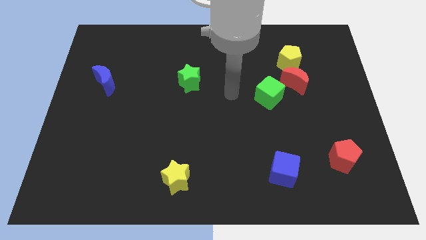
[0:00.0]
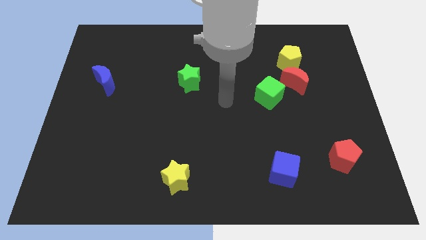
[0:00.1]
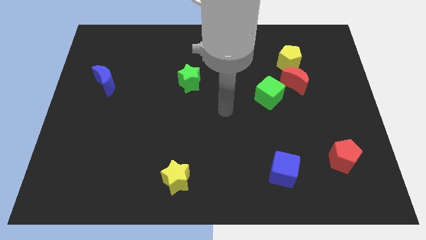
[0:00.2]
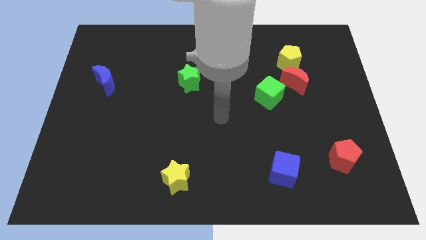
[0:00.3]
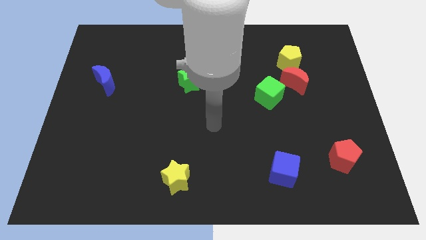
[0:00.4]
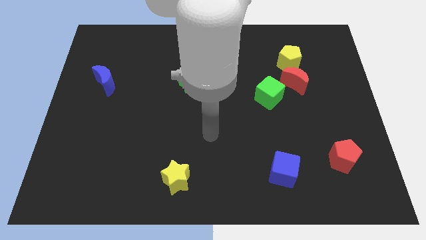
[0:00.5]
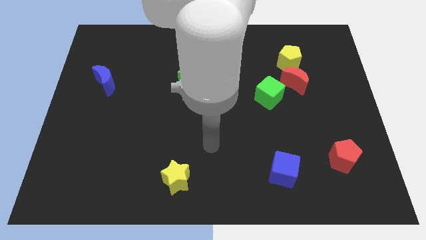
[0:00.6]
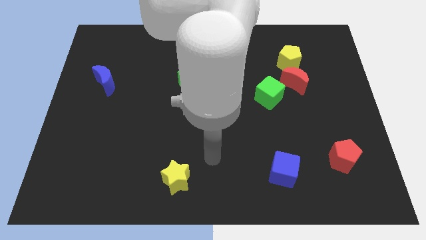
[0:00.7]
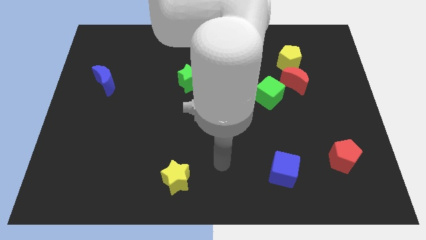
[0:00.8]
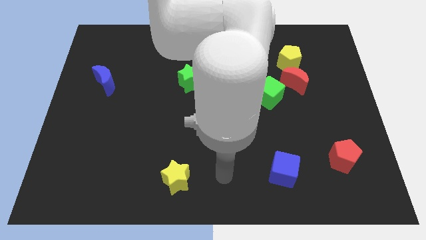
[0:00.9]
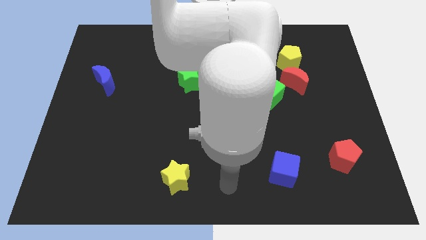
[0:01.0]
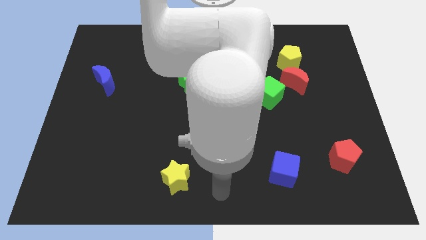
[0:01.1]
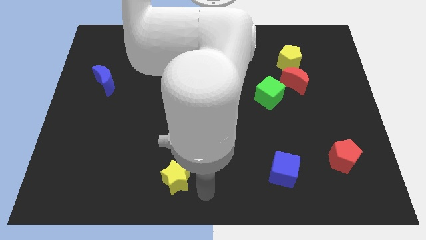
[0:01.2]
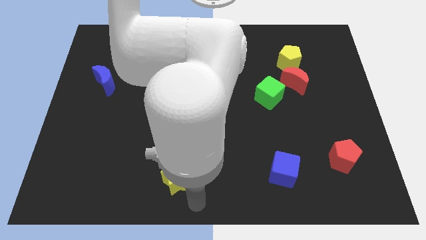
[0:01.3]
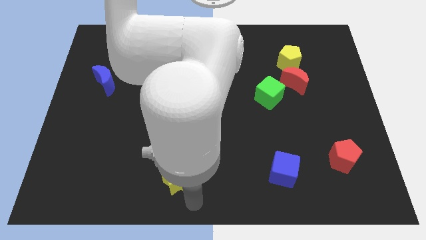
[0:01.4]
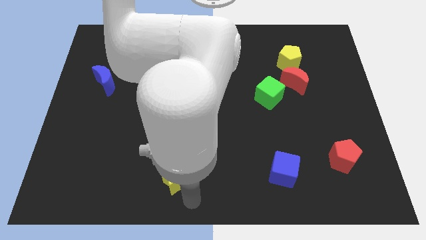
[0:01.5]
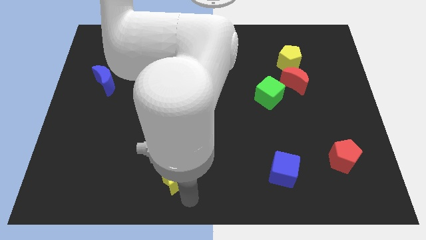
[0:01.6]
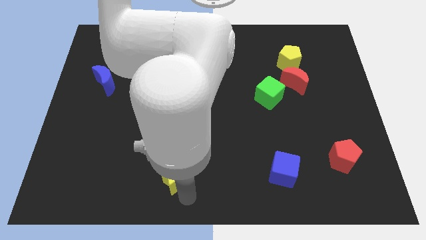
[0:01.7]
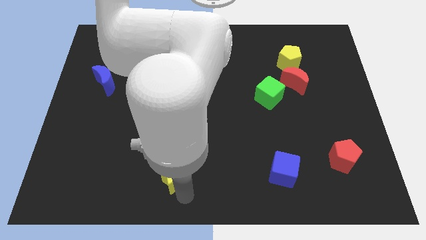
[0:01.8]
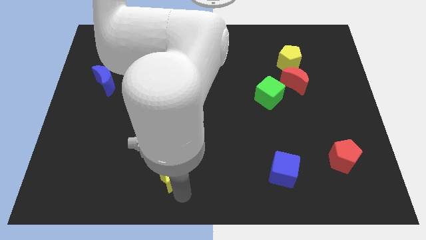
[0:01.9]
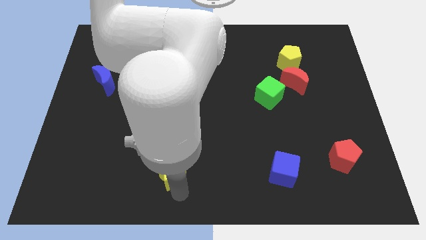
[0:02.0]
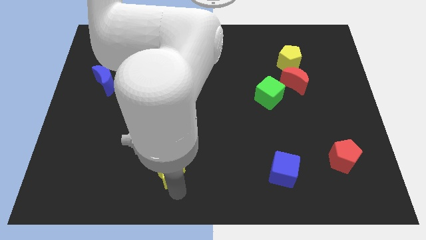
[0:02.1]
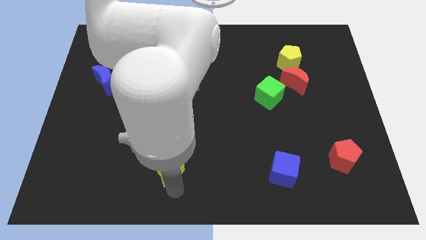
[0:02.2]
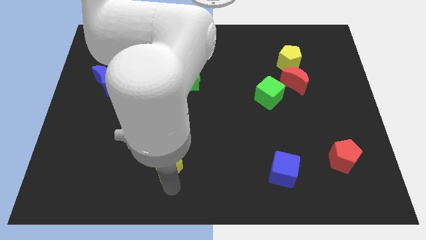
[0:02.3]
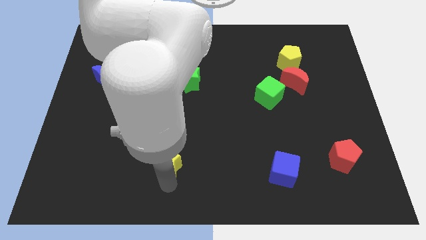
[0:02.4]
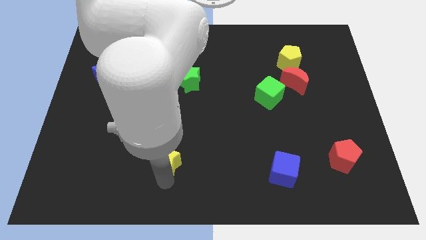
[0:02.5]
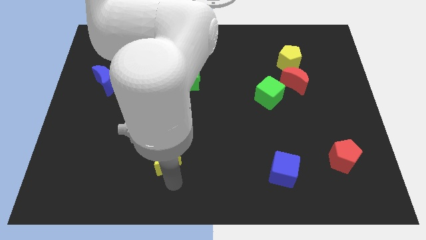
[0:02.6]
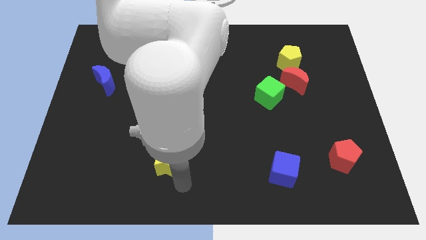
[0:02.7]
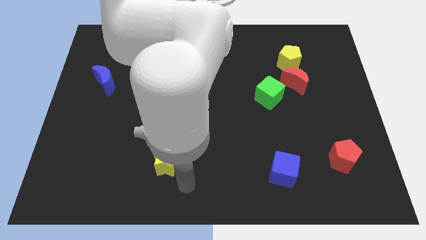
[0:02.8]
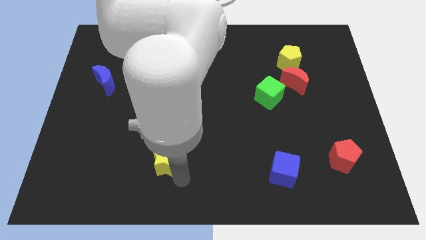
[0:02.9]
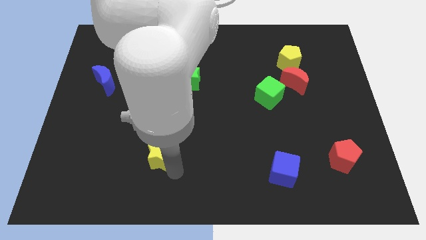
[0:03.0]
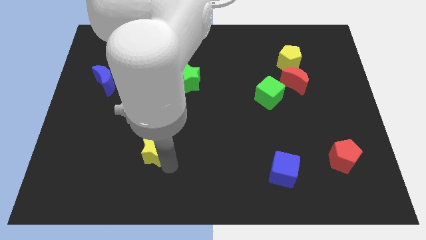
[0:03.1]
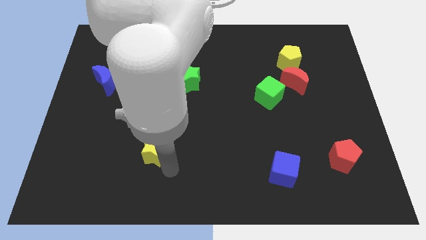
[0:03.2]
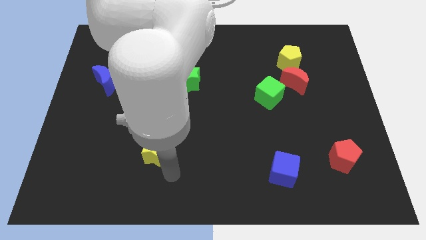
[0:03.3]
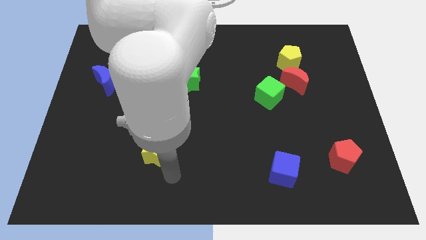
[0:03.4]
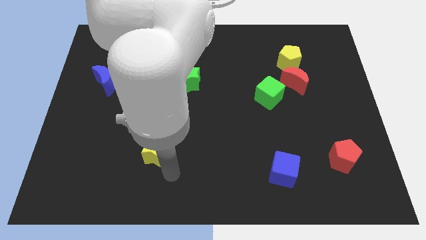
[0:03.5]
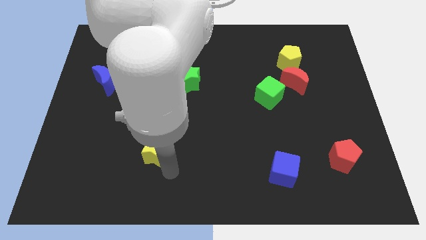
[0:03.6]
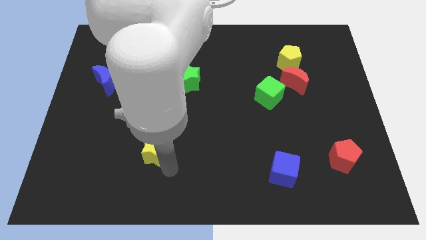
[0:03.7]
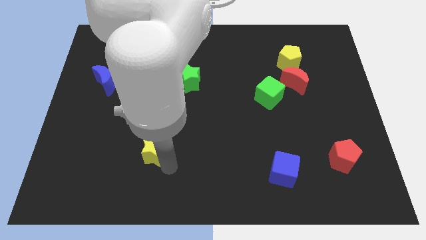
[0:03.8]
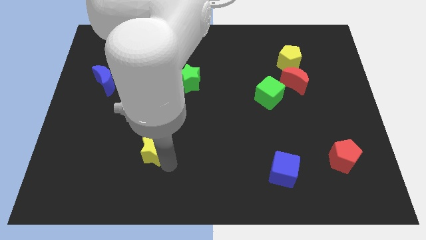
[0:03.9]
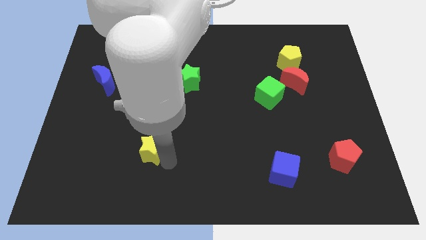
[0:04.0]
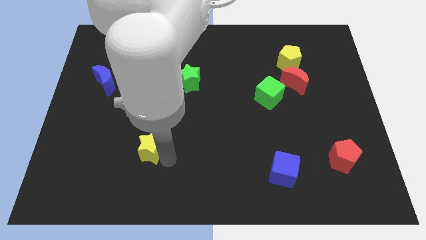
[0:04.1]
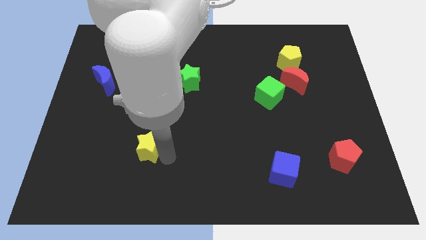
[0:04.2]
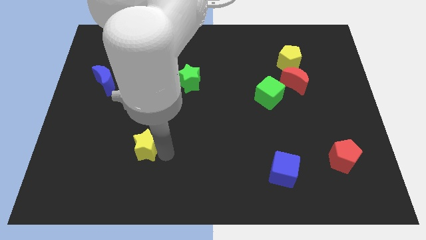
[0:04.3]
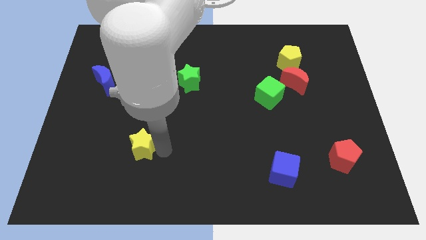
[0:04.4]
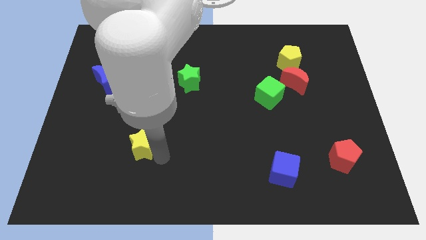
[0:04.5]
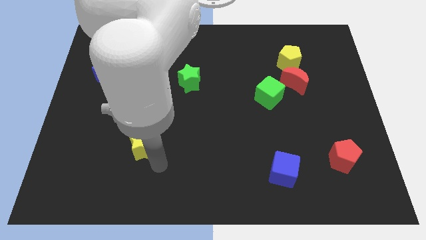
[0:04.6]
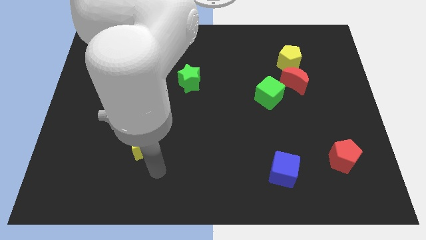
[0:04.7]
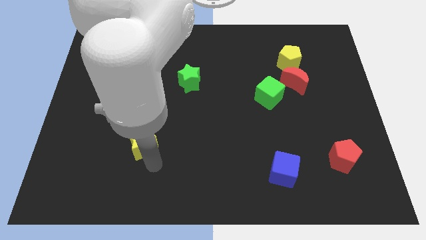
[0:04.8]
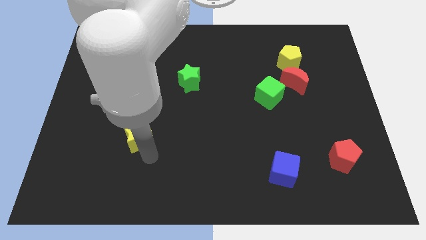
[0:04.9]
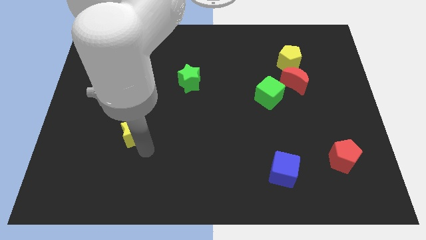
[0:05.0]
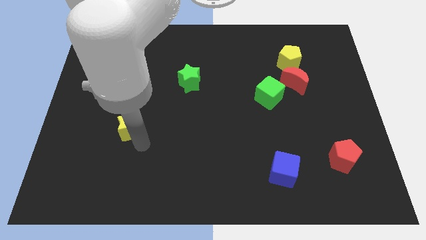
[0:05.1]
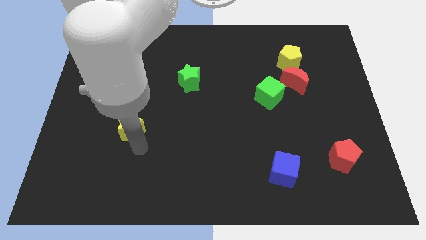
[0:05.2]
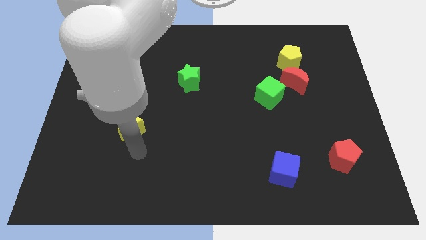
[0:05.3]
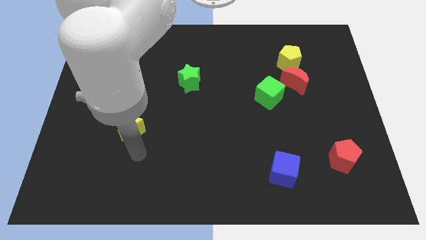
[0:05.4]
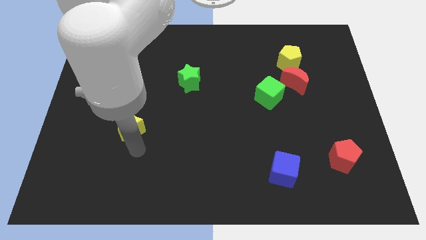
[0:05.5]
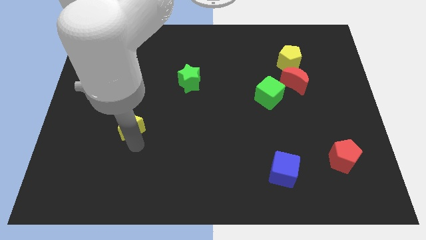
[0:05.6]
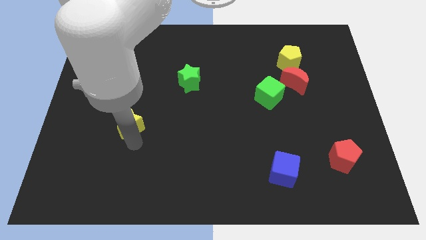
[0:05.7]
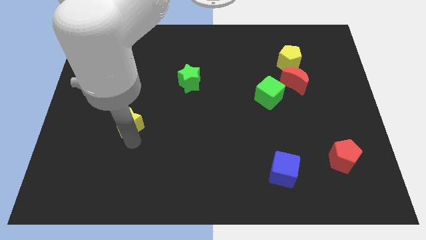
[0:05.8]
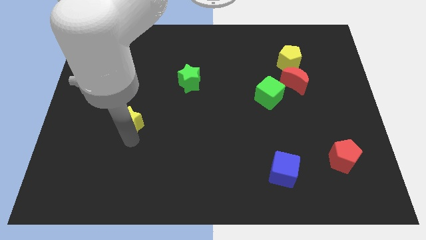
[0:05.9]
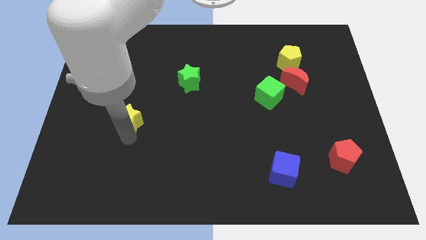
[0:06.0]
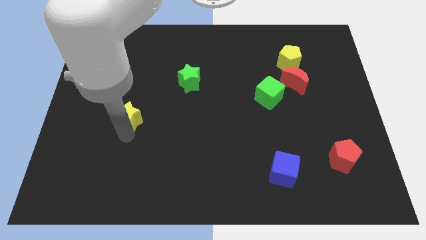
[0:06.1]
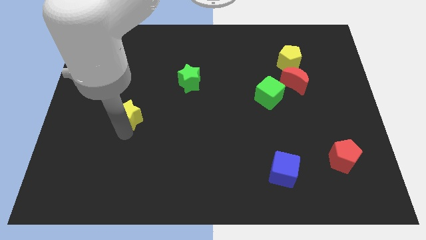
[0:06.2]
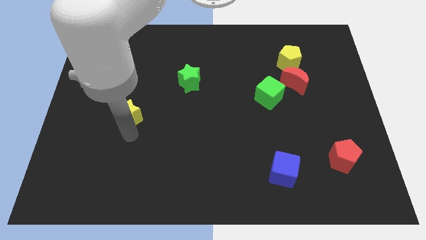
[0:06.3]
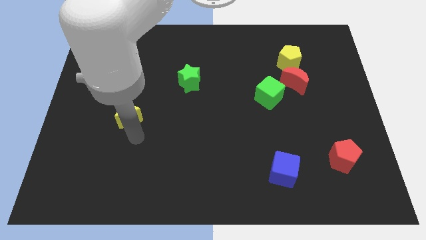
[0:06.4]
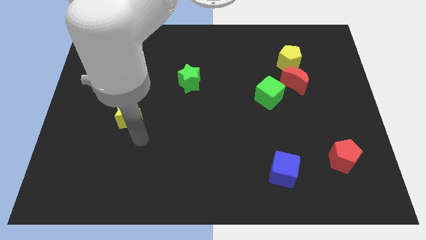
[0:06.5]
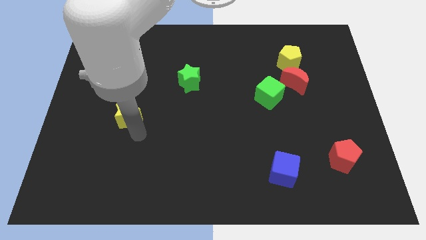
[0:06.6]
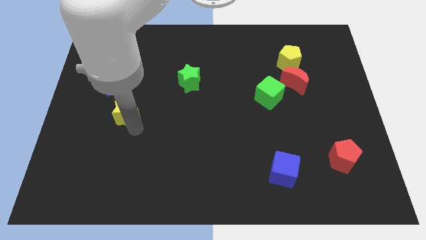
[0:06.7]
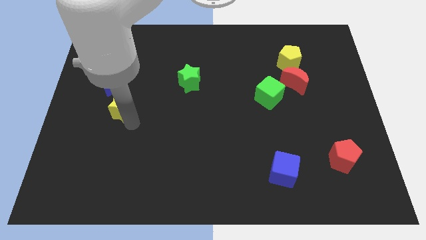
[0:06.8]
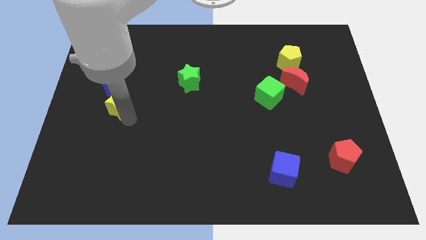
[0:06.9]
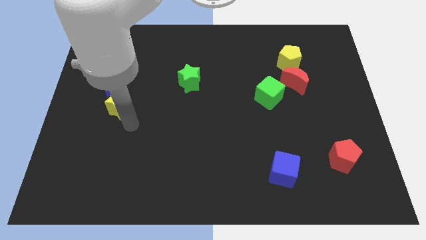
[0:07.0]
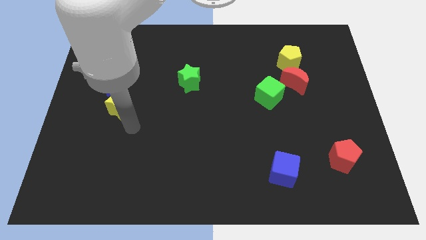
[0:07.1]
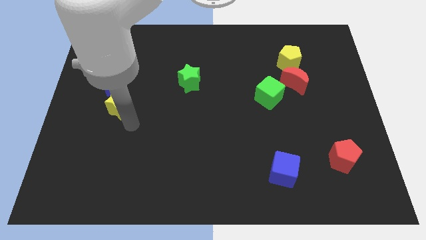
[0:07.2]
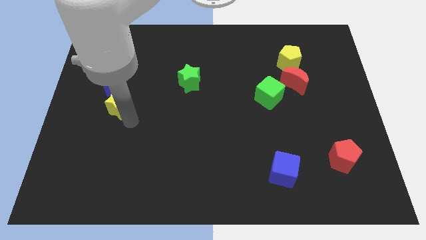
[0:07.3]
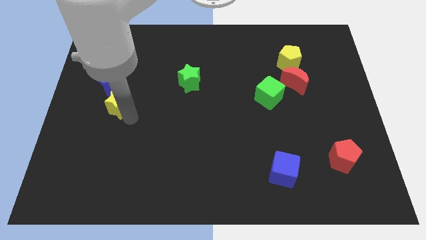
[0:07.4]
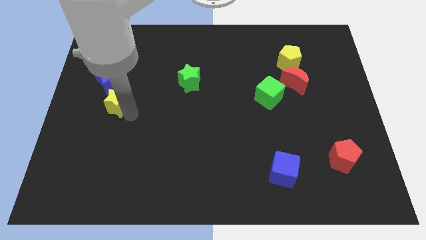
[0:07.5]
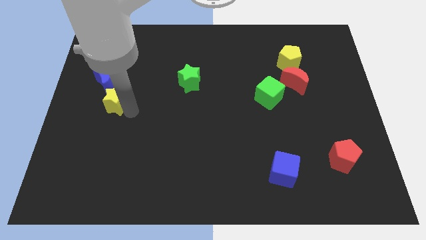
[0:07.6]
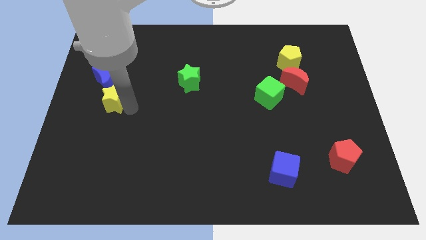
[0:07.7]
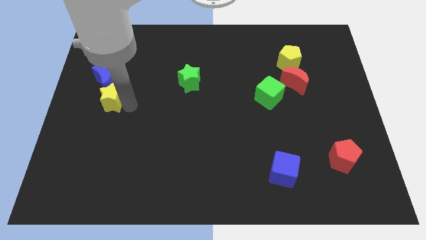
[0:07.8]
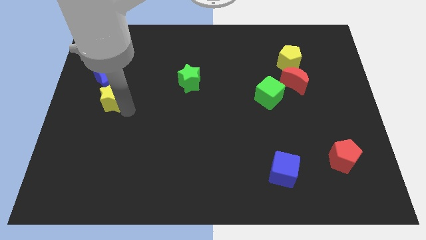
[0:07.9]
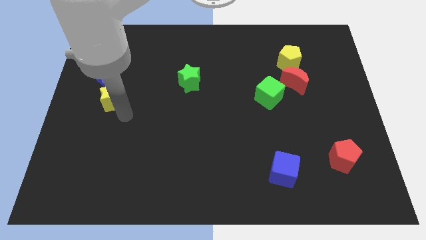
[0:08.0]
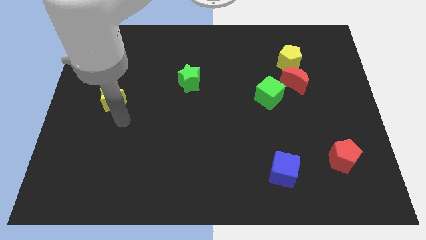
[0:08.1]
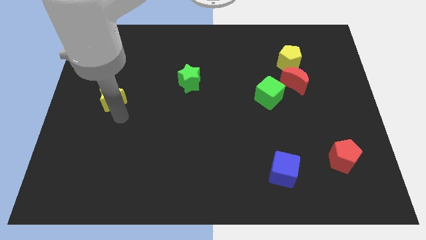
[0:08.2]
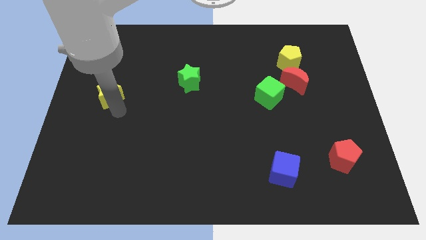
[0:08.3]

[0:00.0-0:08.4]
slide the yellow star to the blue moon
